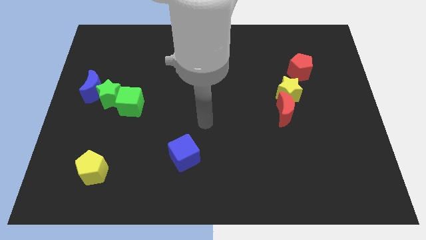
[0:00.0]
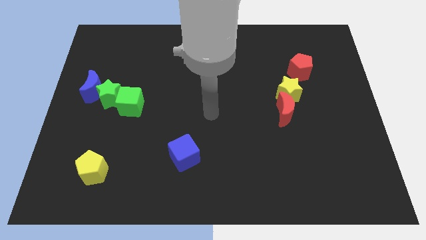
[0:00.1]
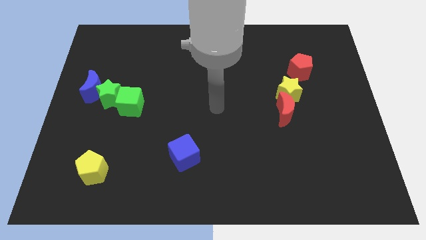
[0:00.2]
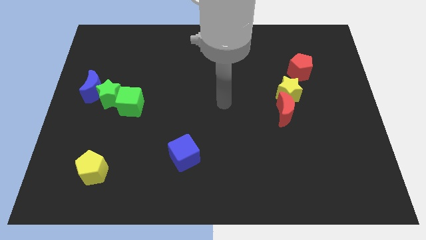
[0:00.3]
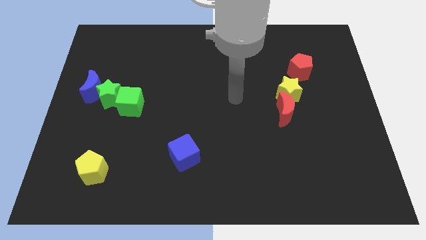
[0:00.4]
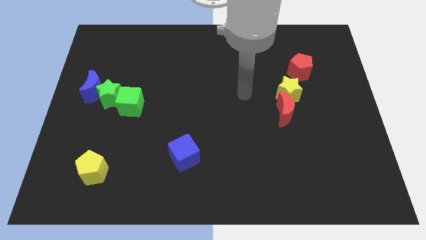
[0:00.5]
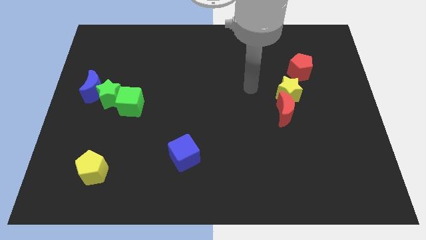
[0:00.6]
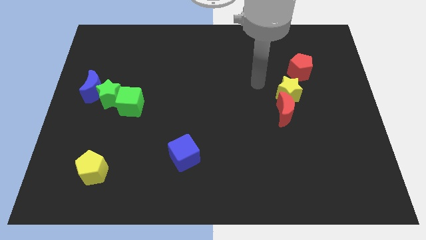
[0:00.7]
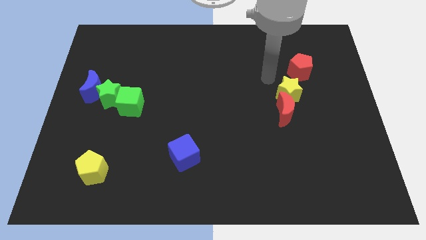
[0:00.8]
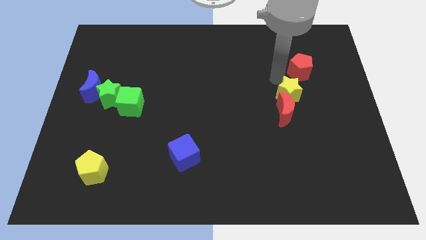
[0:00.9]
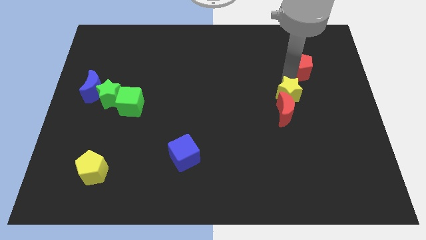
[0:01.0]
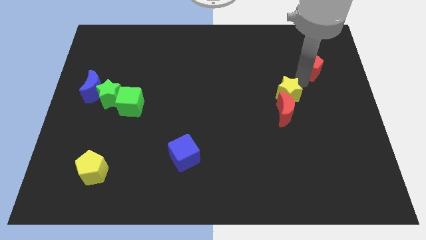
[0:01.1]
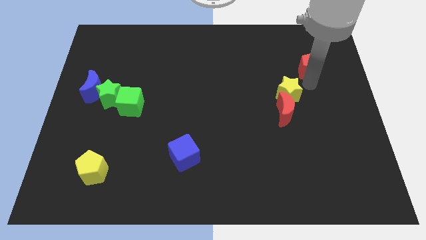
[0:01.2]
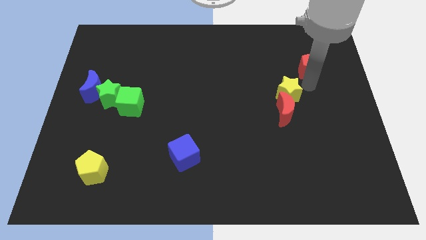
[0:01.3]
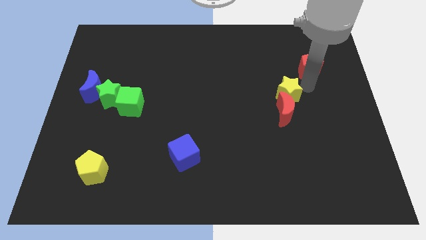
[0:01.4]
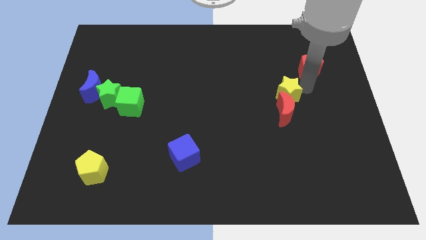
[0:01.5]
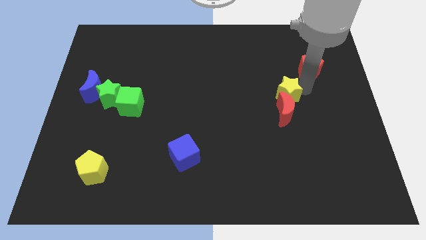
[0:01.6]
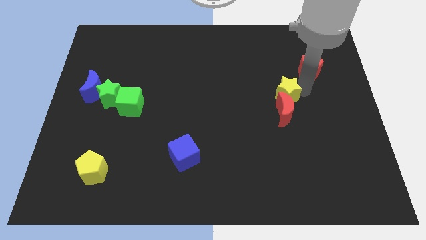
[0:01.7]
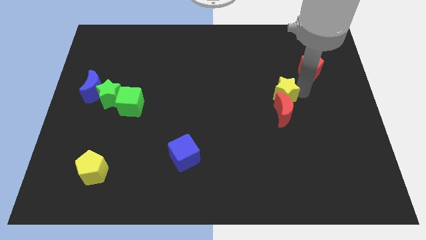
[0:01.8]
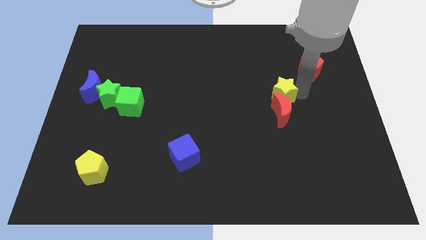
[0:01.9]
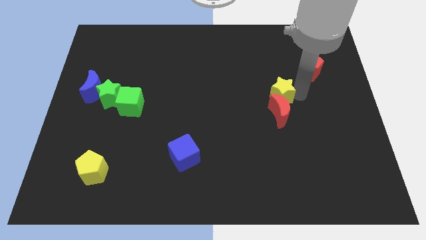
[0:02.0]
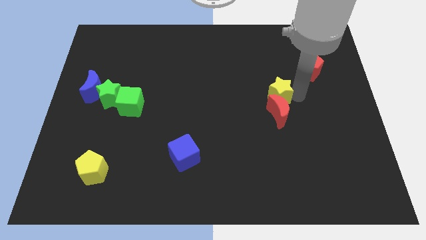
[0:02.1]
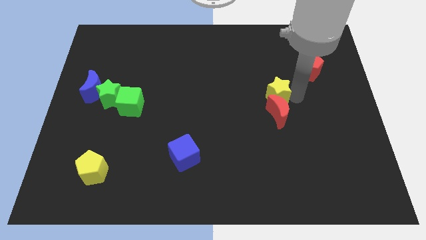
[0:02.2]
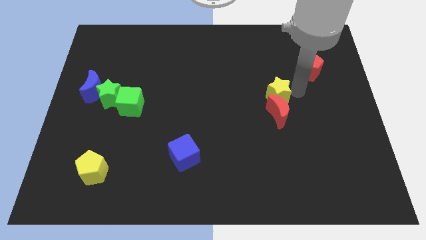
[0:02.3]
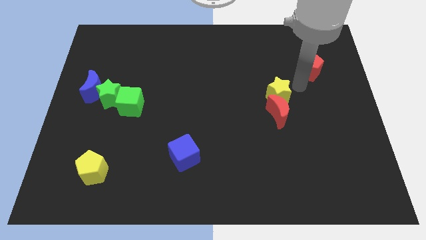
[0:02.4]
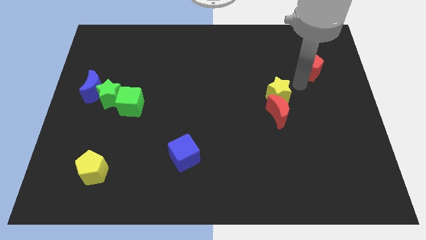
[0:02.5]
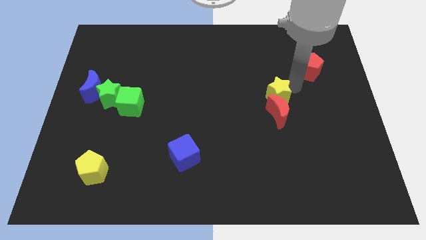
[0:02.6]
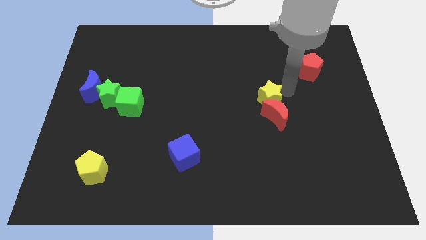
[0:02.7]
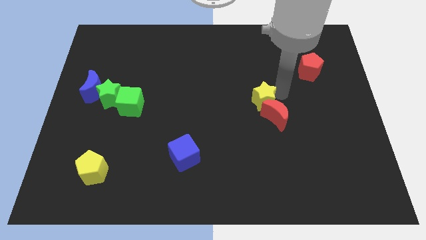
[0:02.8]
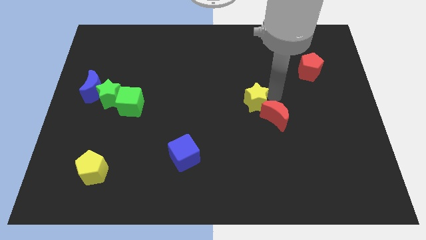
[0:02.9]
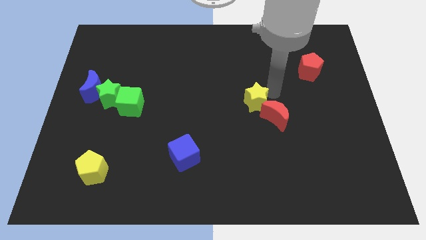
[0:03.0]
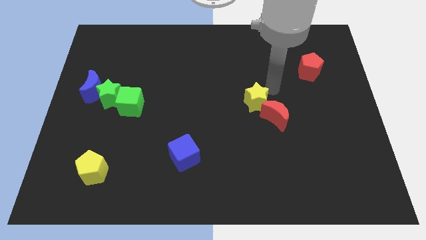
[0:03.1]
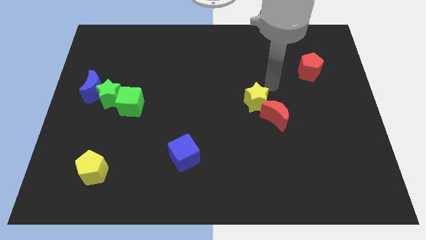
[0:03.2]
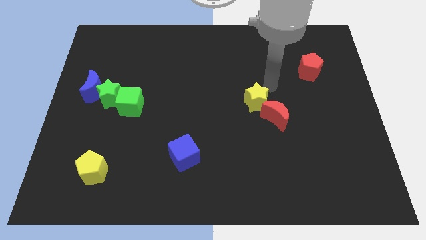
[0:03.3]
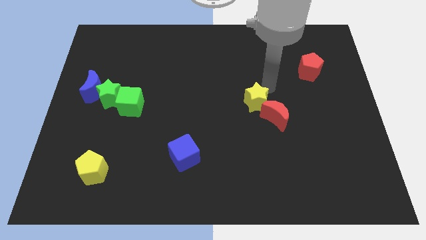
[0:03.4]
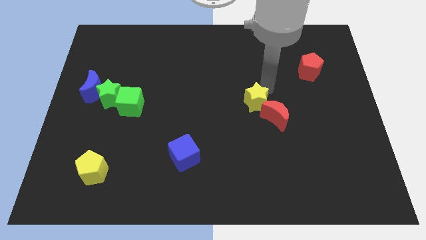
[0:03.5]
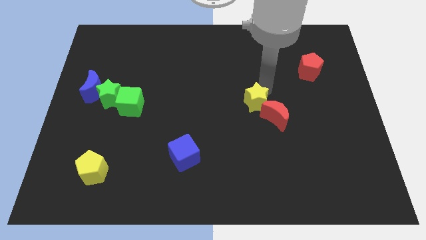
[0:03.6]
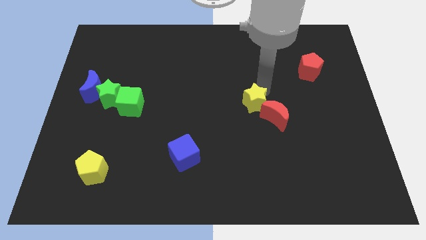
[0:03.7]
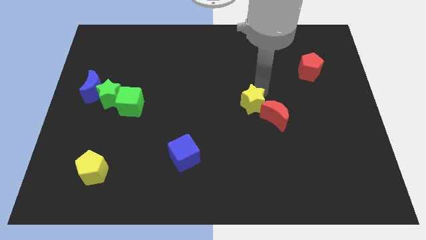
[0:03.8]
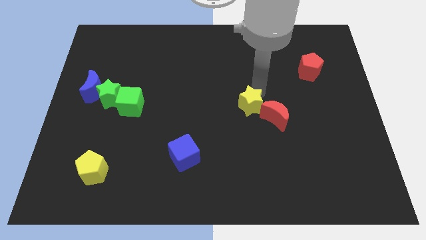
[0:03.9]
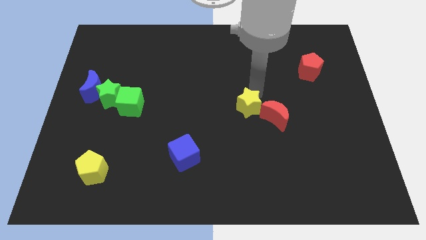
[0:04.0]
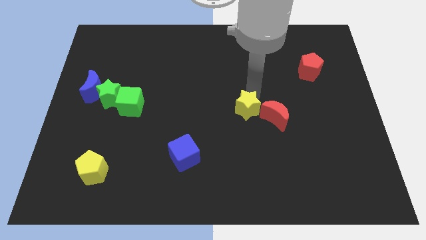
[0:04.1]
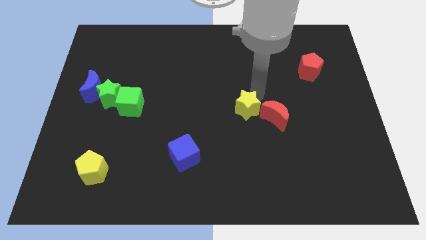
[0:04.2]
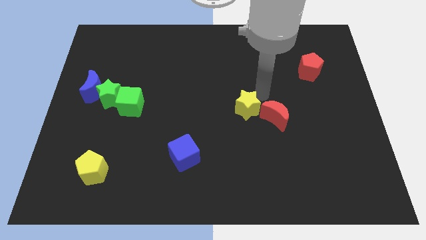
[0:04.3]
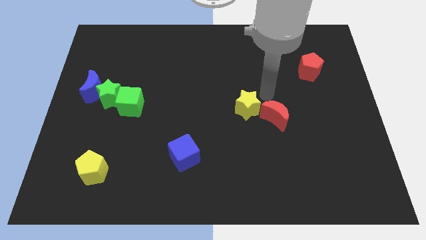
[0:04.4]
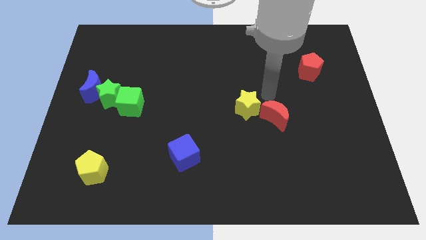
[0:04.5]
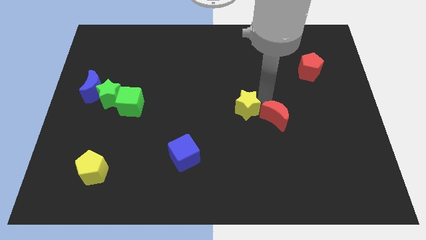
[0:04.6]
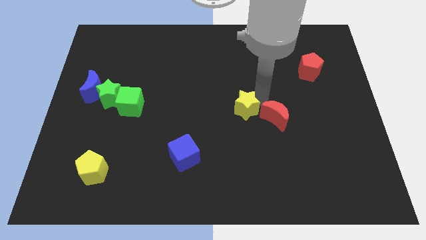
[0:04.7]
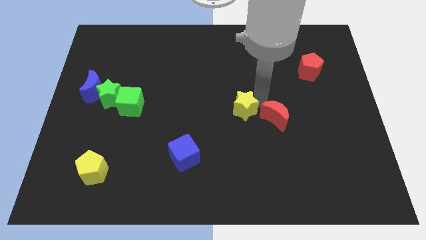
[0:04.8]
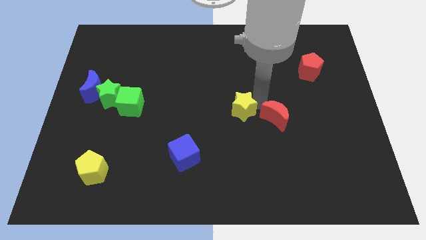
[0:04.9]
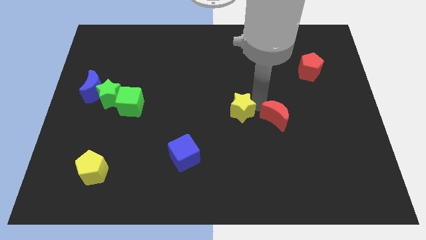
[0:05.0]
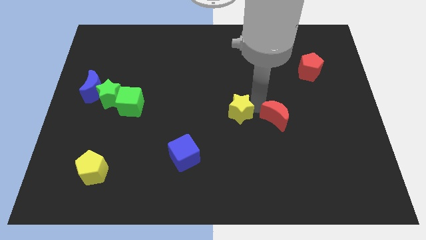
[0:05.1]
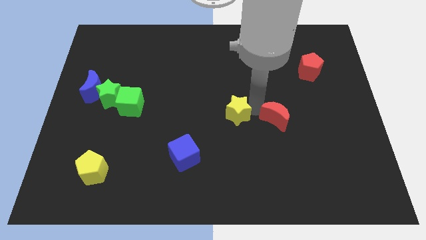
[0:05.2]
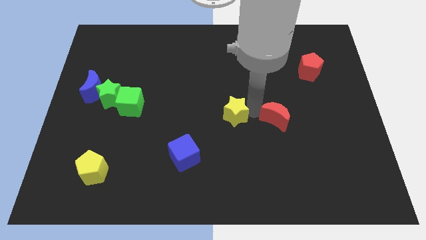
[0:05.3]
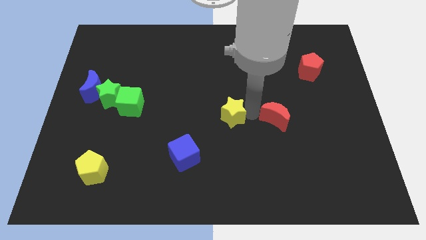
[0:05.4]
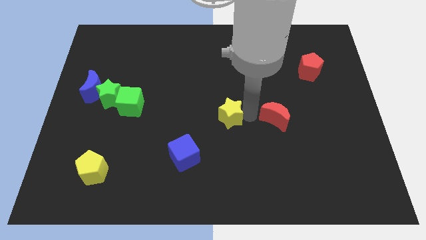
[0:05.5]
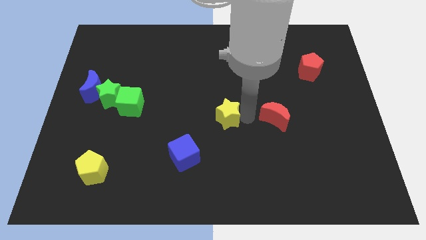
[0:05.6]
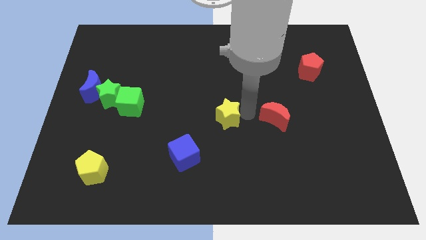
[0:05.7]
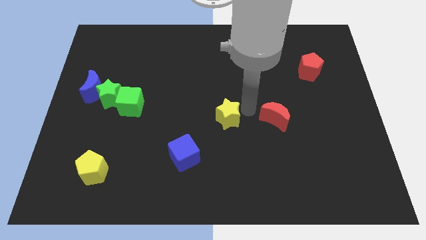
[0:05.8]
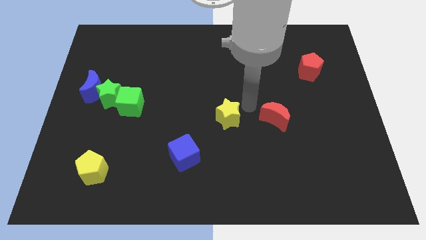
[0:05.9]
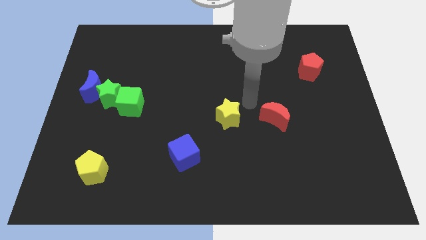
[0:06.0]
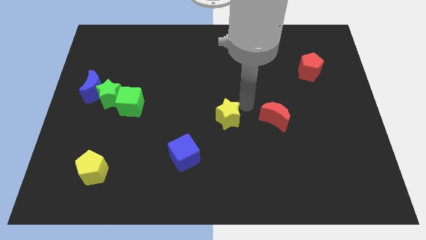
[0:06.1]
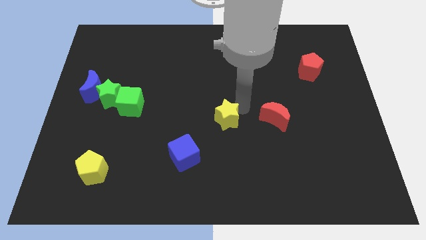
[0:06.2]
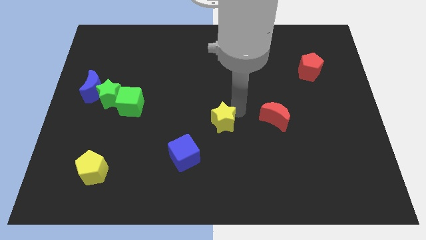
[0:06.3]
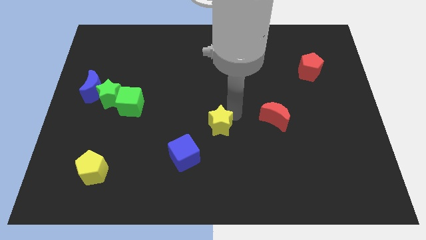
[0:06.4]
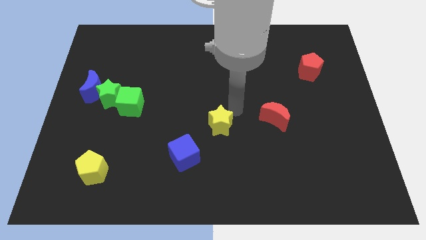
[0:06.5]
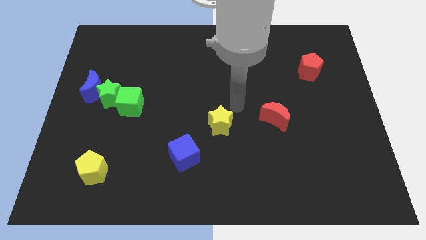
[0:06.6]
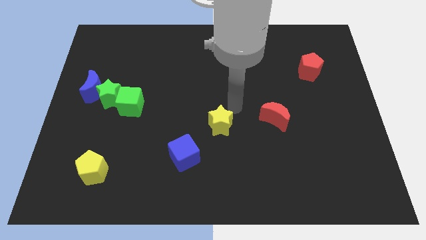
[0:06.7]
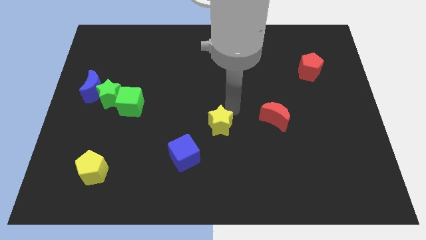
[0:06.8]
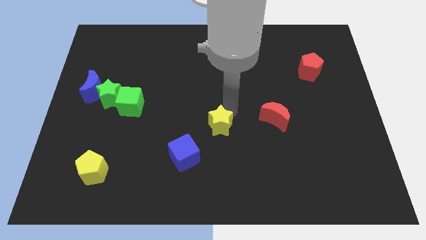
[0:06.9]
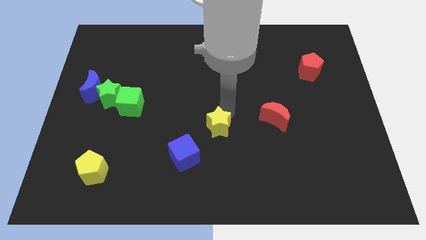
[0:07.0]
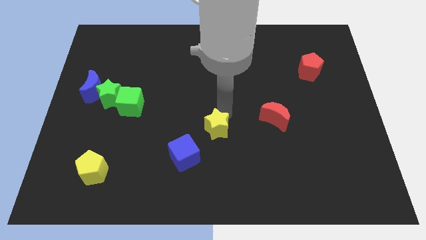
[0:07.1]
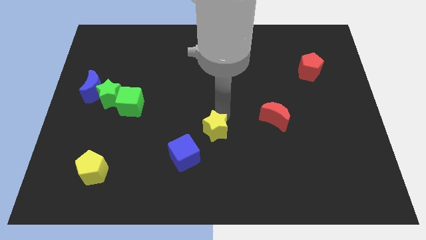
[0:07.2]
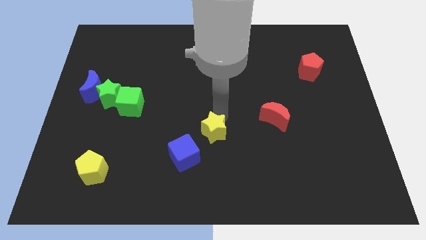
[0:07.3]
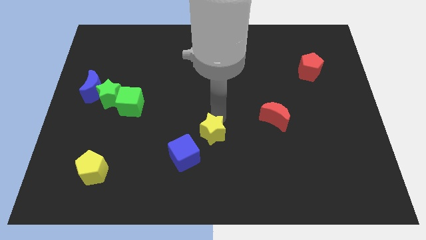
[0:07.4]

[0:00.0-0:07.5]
push the yellow star diagonally down and left

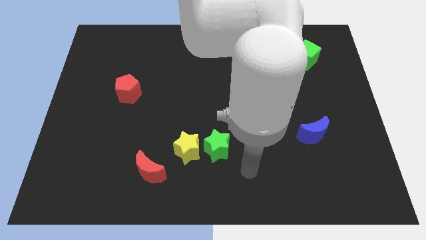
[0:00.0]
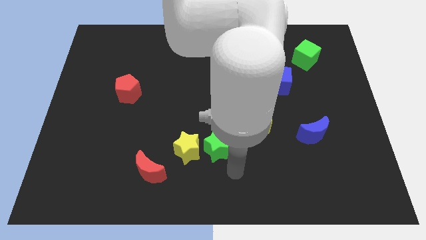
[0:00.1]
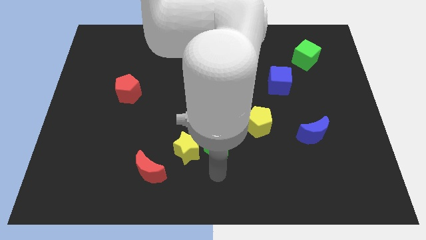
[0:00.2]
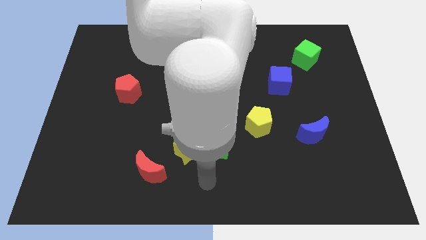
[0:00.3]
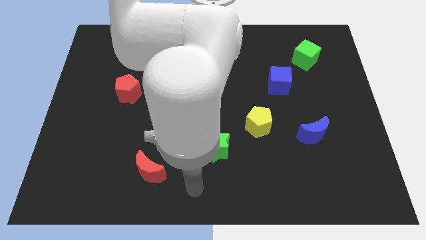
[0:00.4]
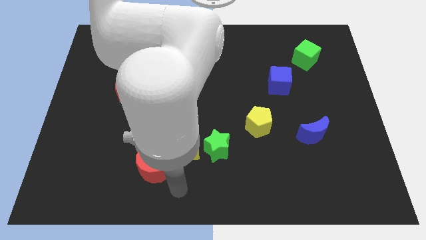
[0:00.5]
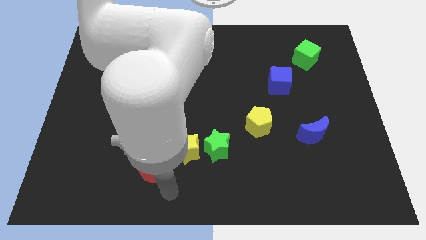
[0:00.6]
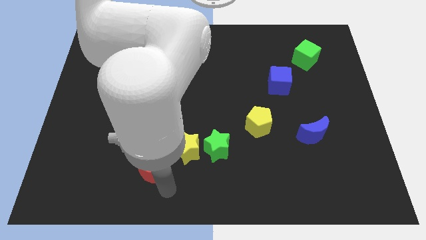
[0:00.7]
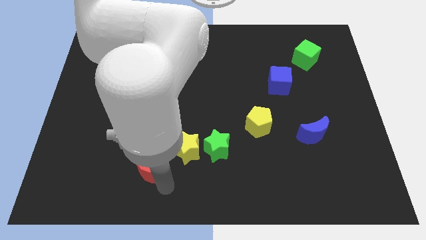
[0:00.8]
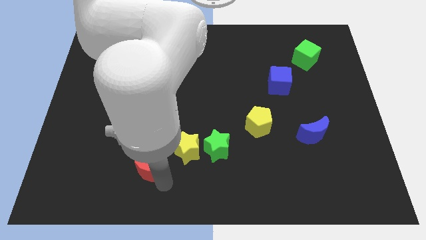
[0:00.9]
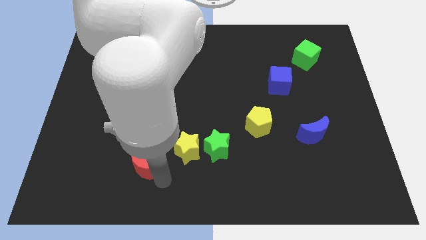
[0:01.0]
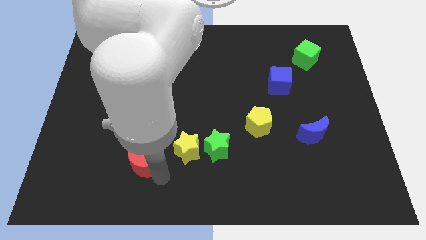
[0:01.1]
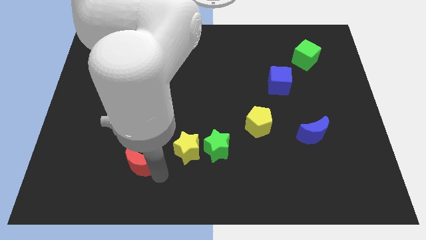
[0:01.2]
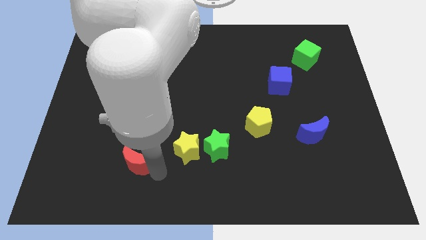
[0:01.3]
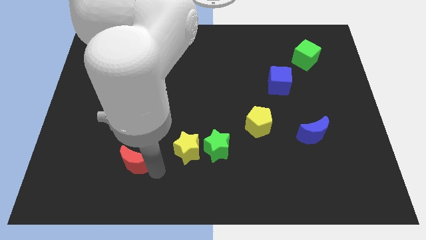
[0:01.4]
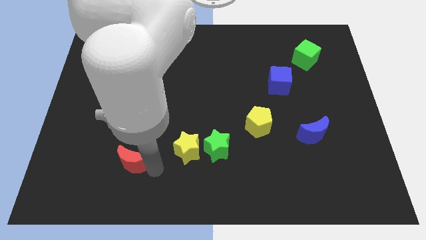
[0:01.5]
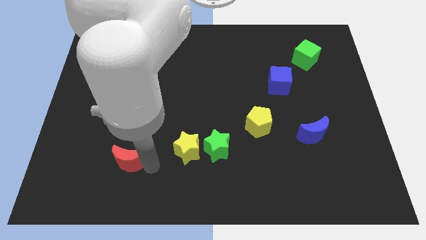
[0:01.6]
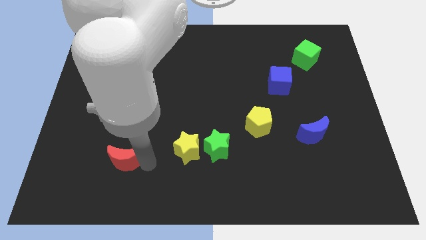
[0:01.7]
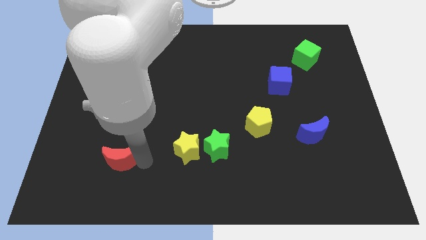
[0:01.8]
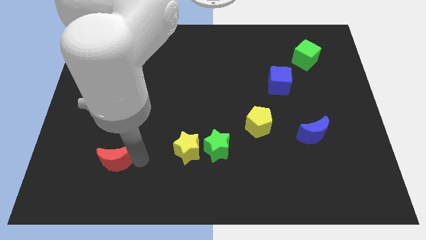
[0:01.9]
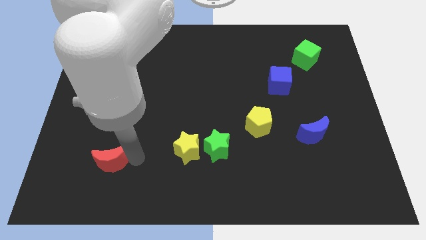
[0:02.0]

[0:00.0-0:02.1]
move the red moon a bit up and to the left diagonally
